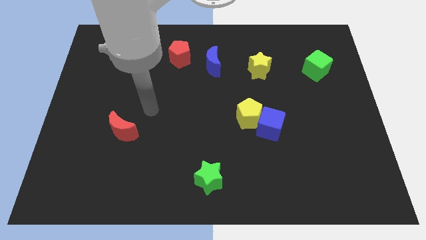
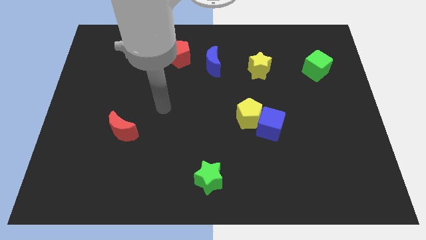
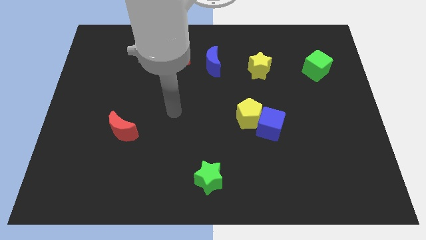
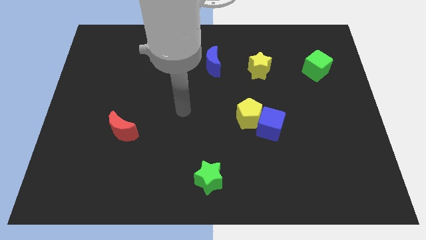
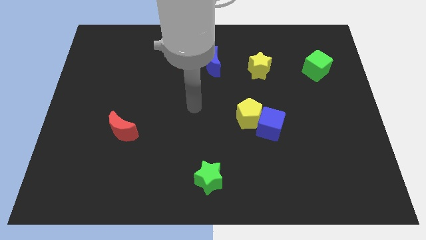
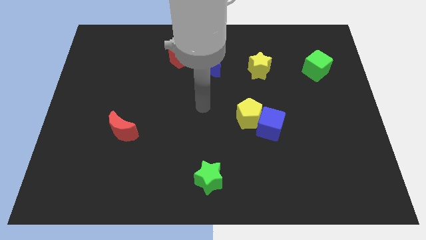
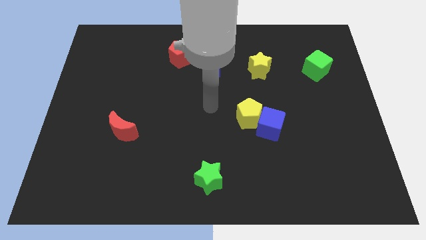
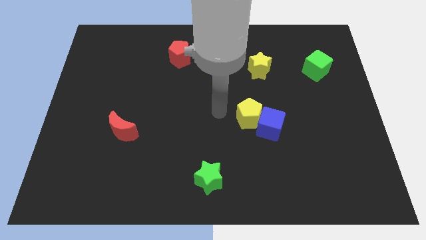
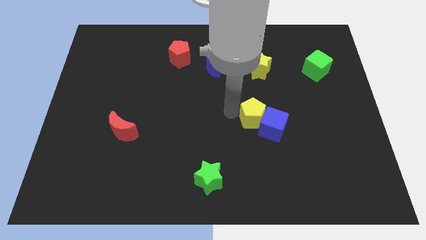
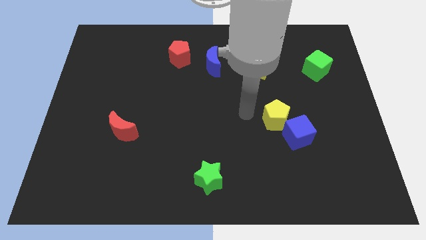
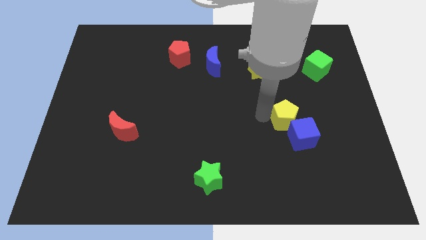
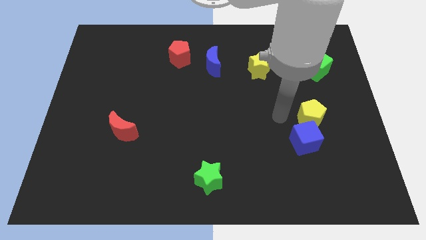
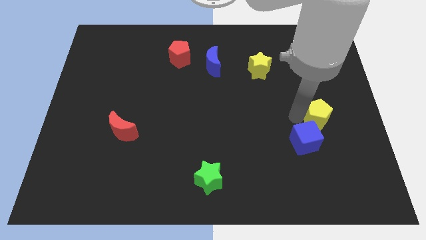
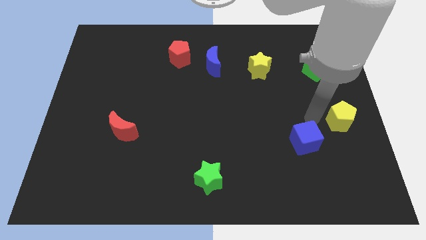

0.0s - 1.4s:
pull the blue cube apart from the yellow pentagon

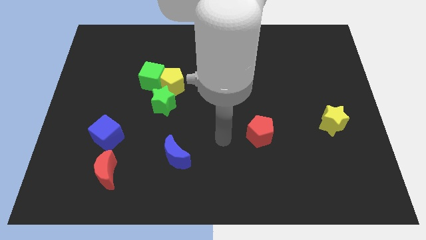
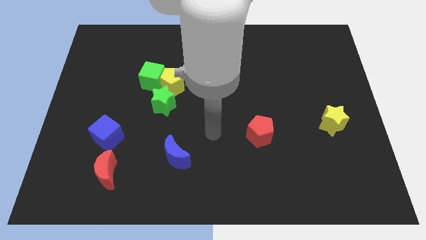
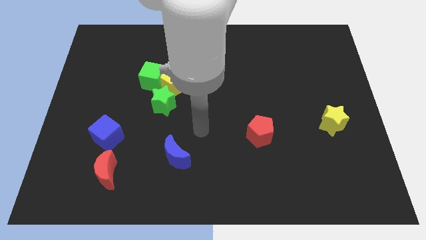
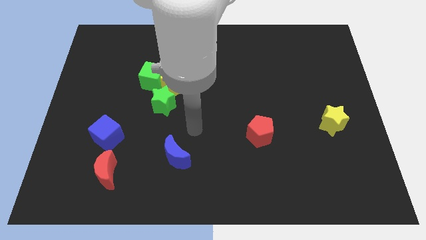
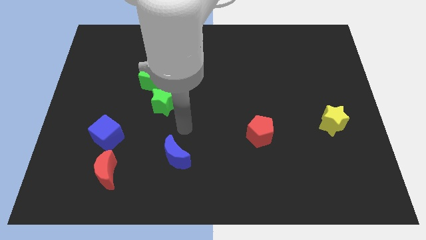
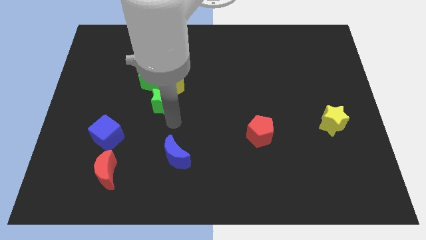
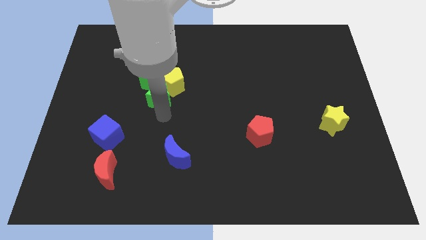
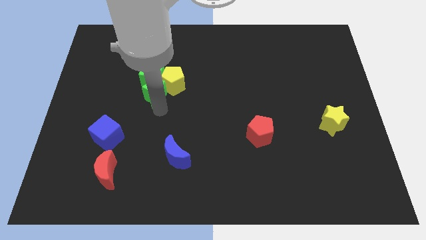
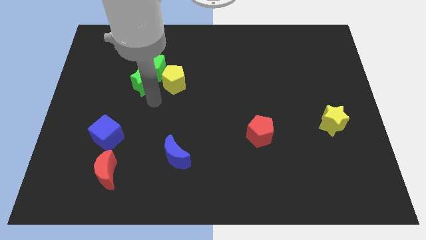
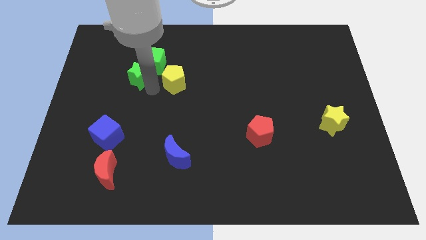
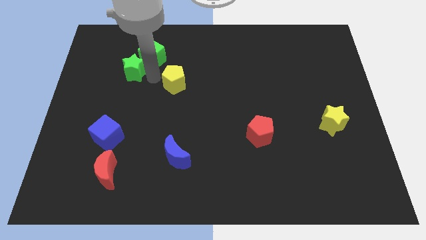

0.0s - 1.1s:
pull the yellow pentagon apart from the green cube and green star

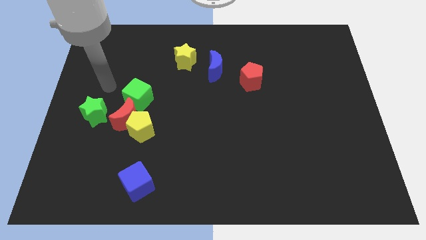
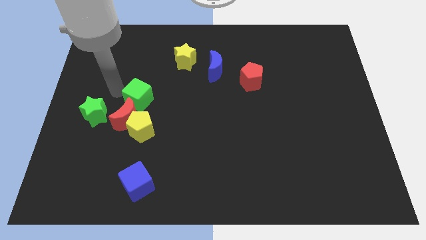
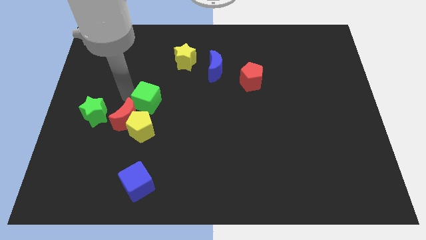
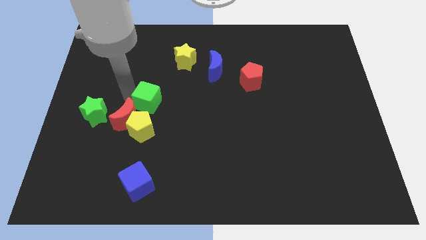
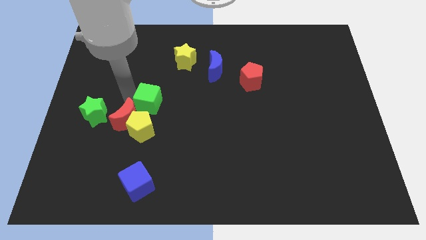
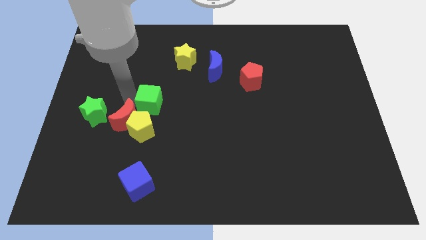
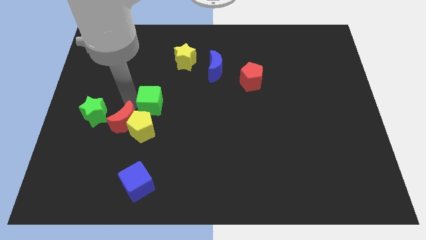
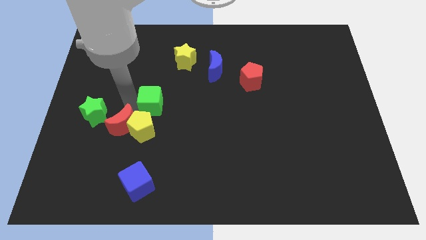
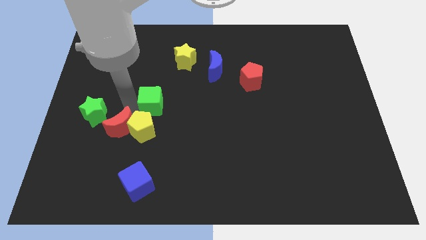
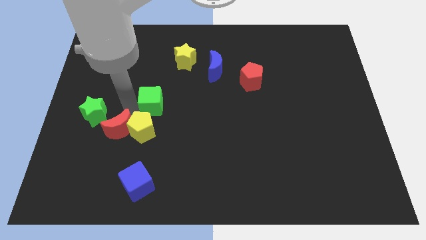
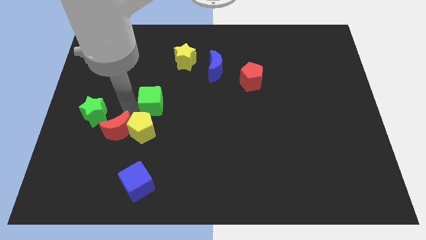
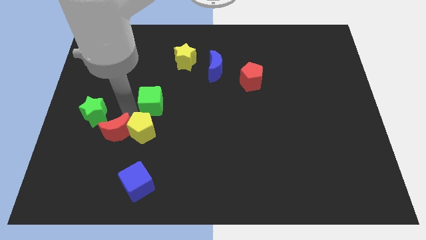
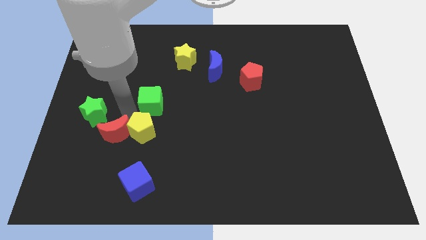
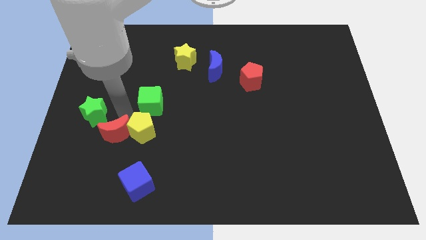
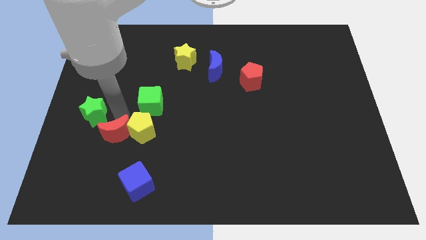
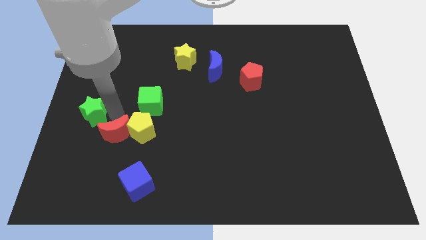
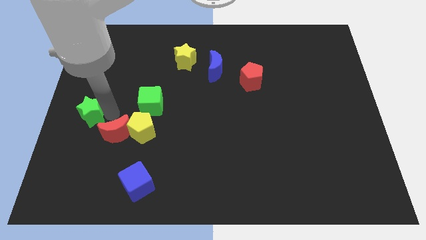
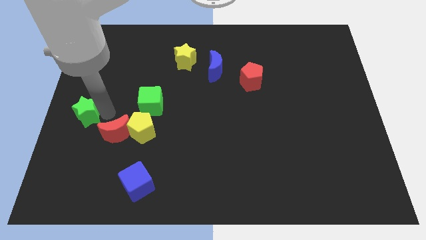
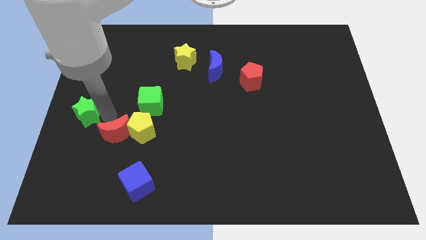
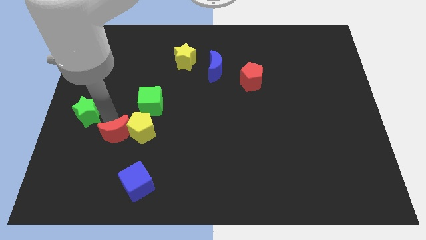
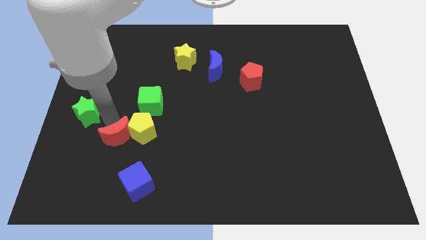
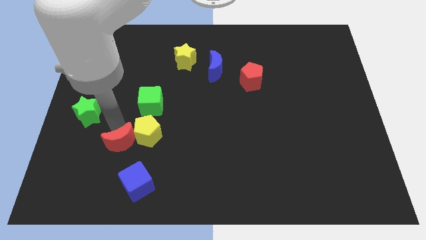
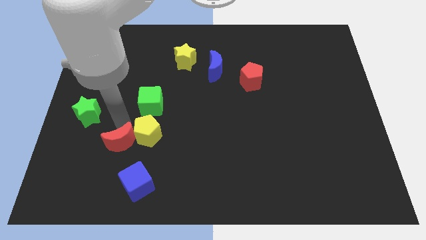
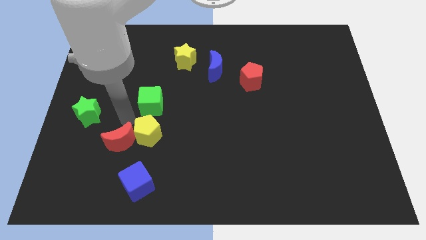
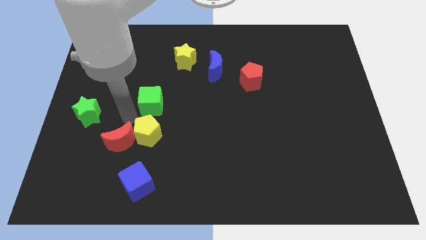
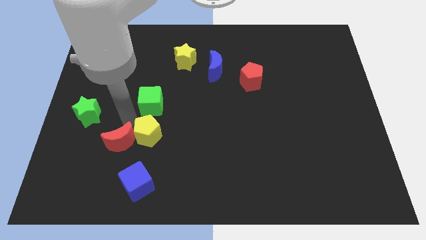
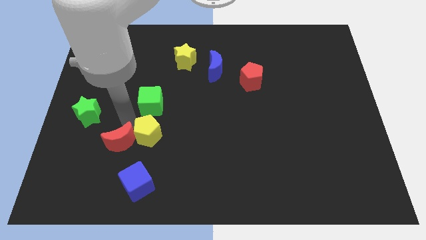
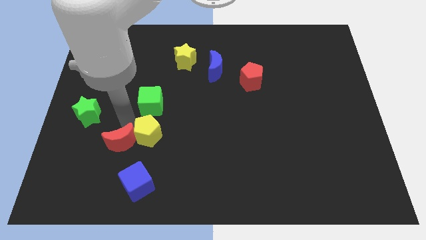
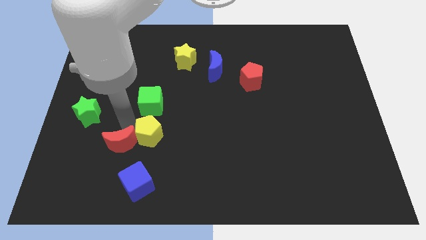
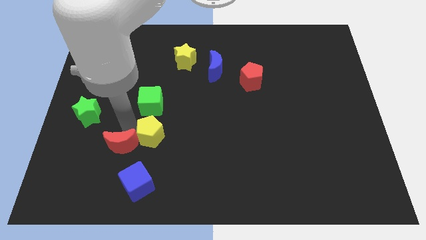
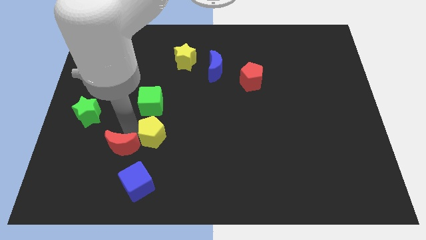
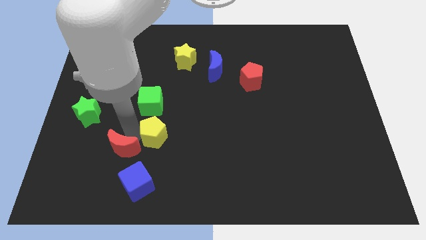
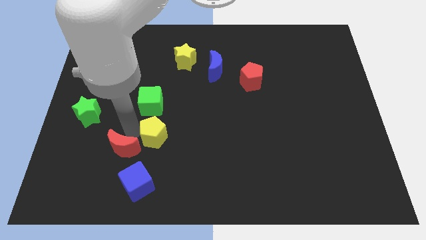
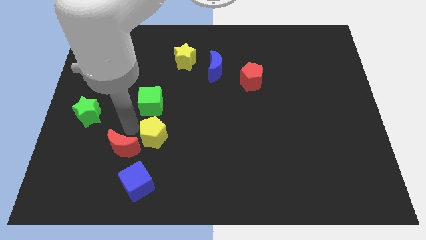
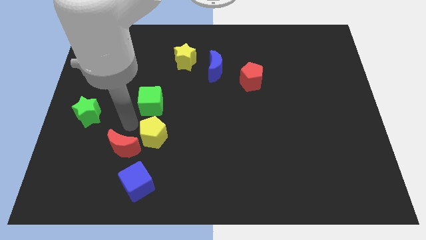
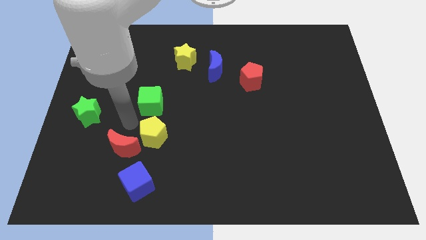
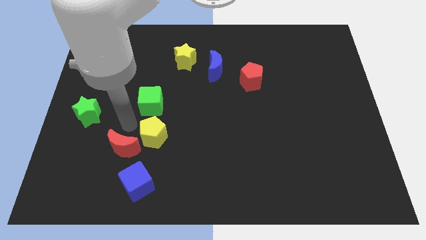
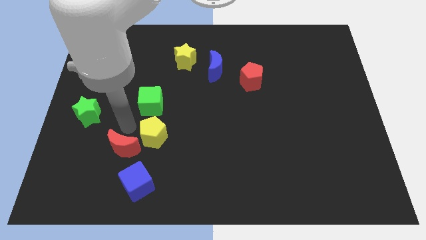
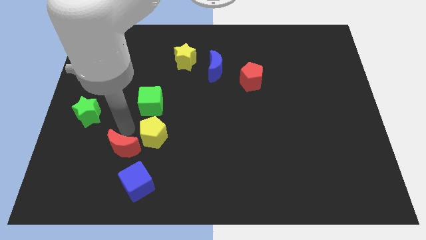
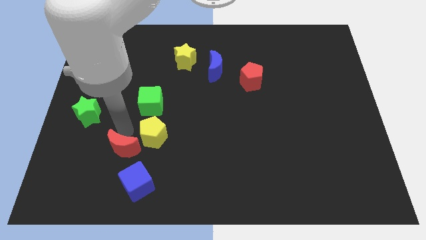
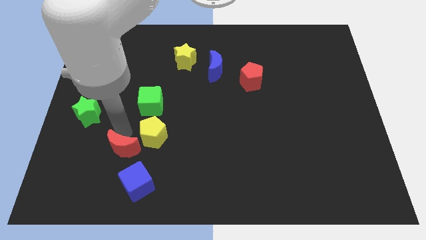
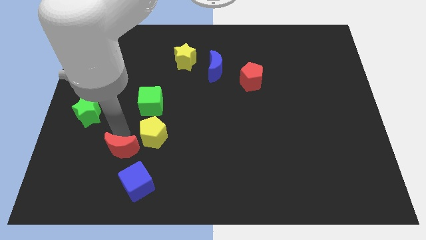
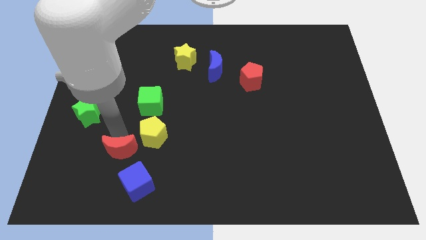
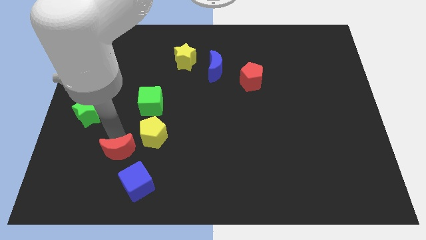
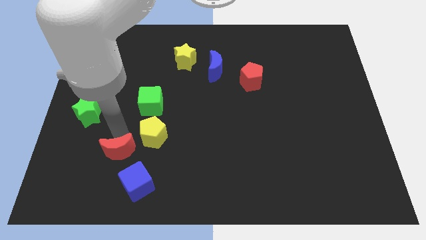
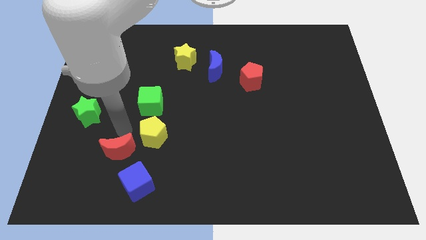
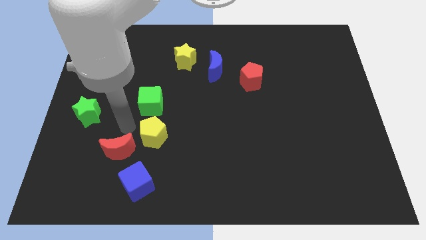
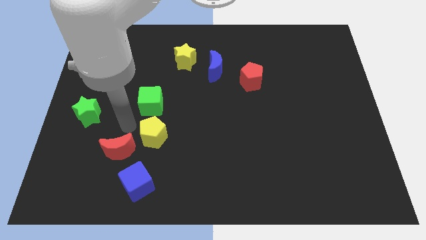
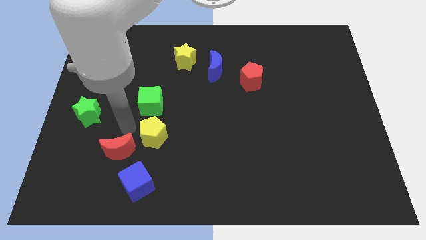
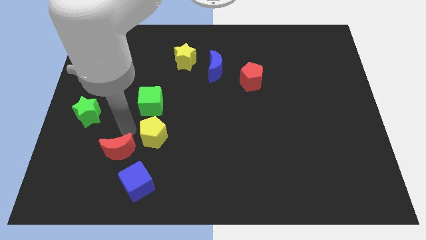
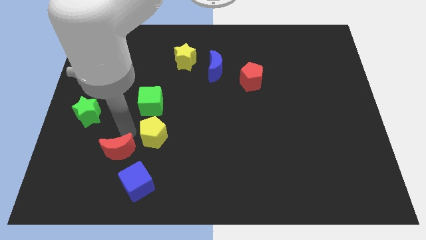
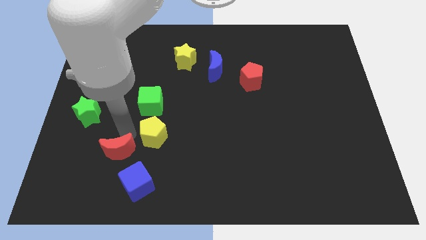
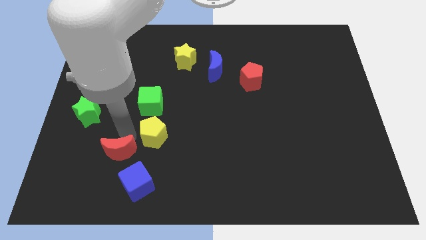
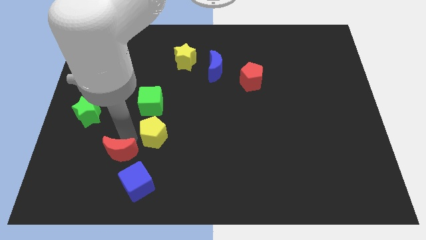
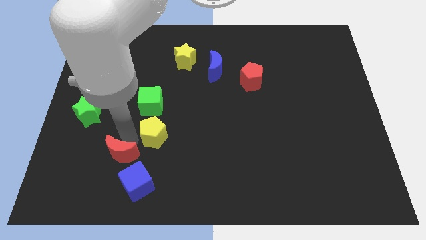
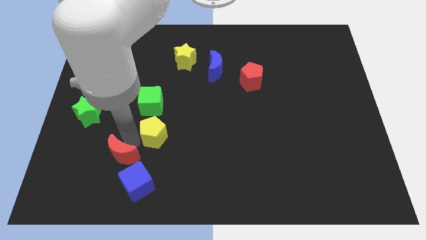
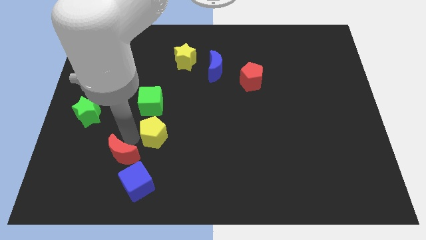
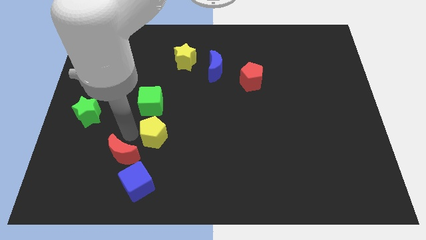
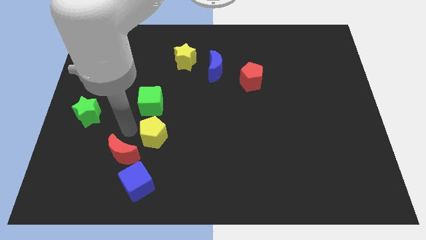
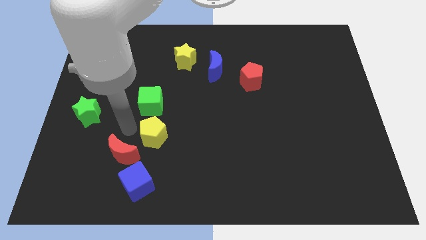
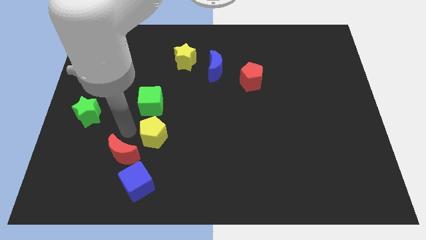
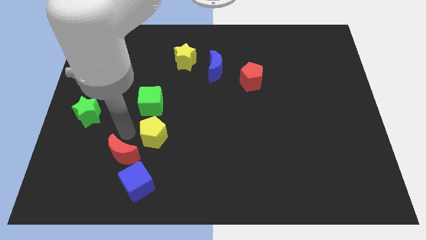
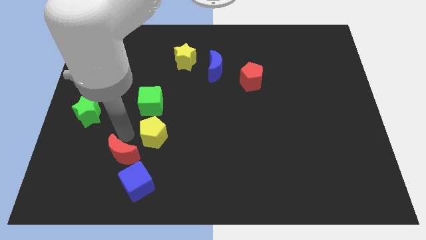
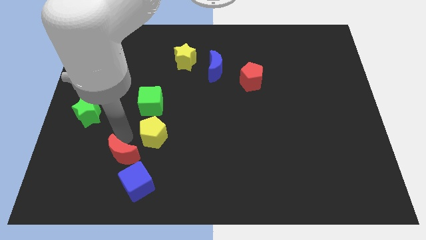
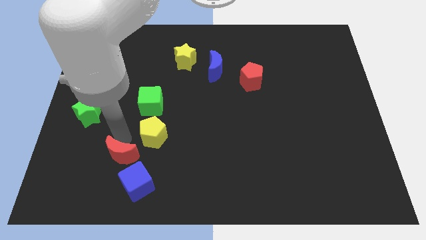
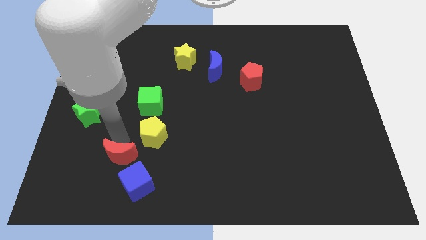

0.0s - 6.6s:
separate the red moon from the group

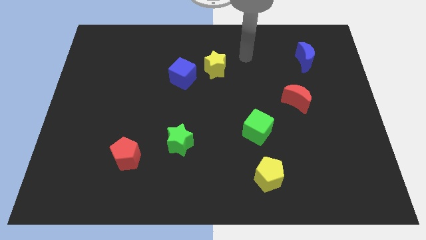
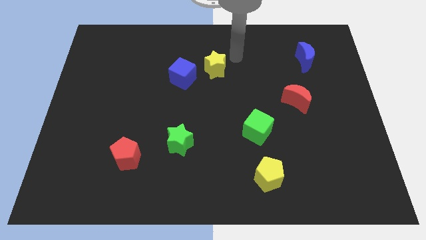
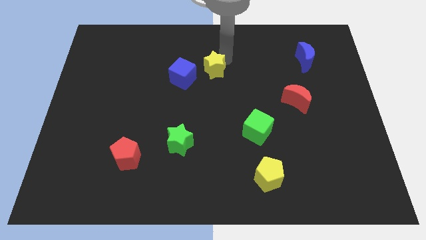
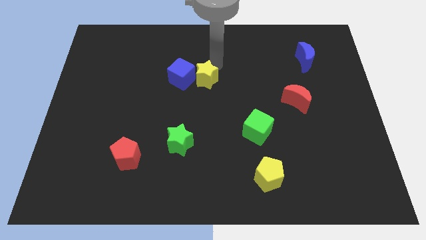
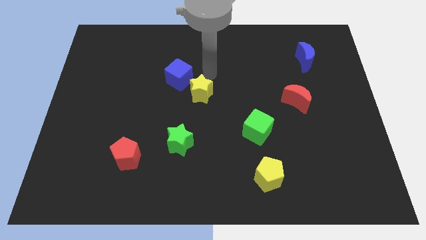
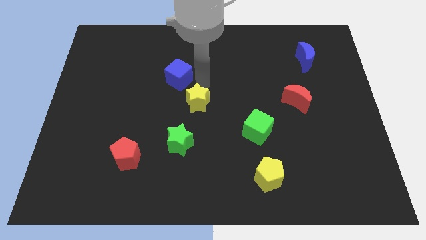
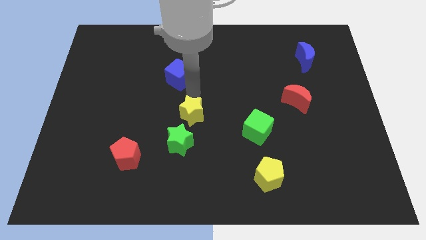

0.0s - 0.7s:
pull the blue cube apart from the yellow star
